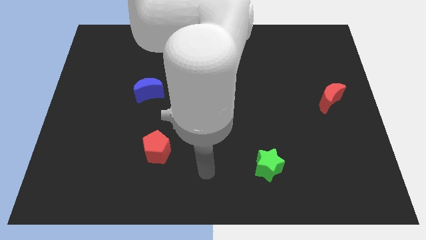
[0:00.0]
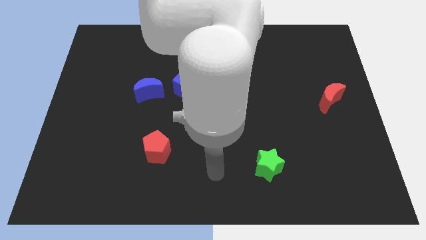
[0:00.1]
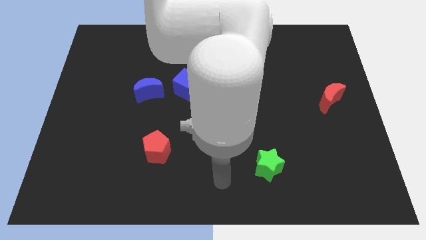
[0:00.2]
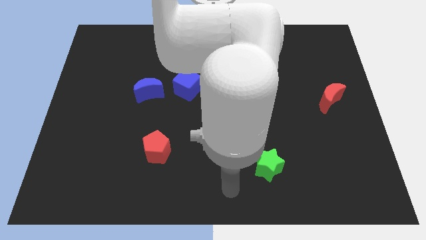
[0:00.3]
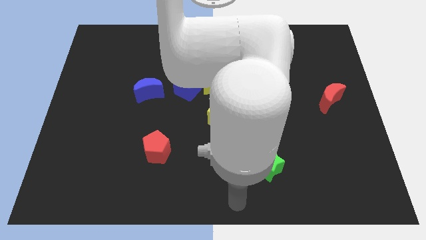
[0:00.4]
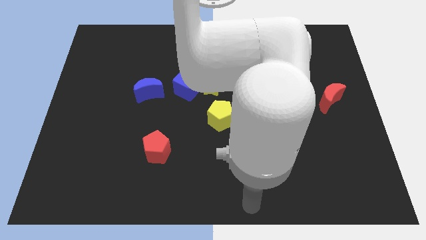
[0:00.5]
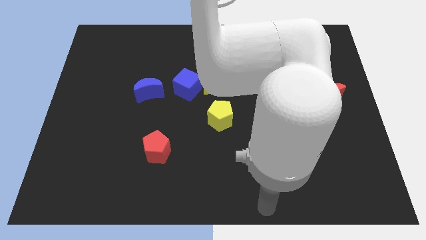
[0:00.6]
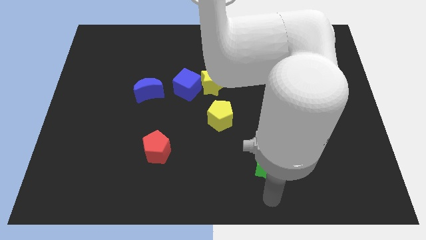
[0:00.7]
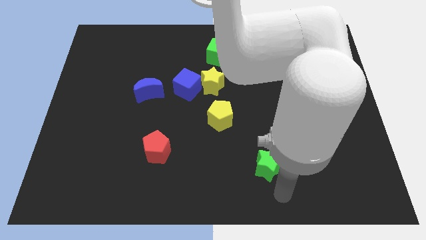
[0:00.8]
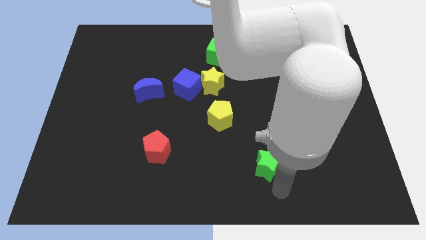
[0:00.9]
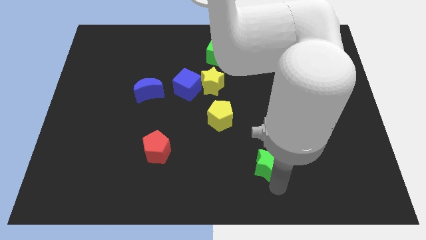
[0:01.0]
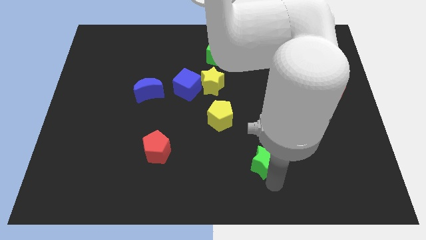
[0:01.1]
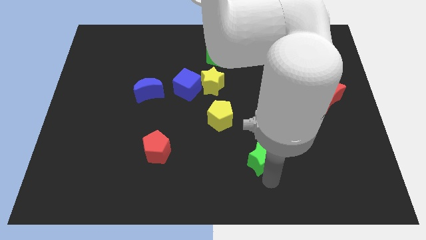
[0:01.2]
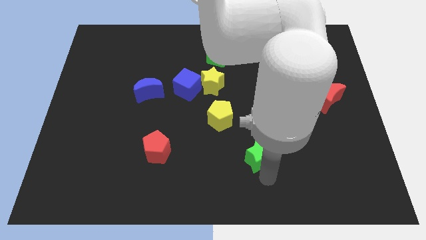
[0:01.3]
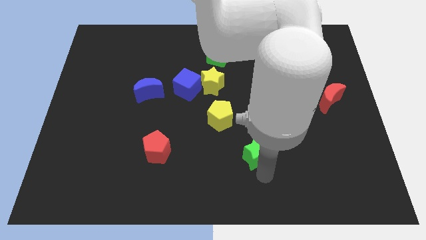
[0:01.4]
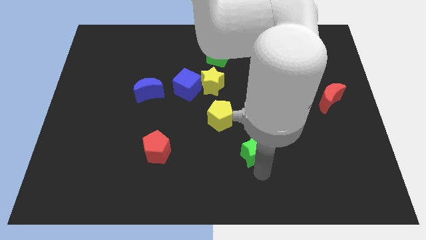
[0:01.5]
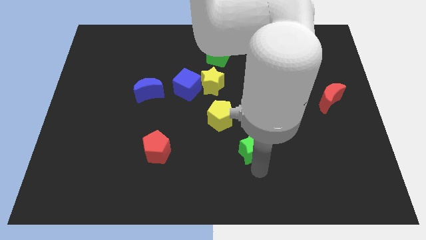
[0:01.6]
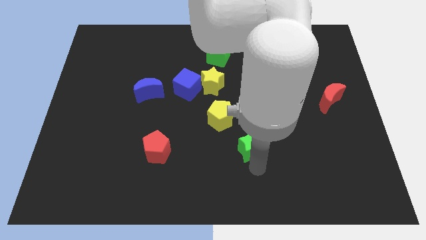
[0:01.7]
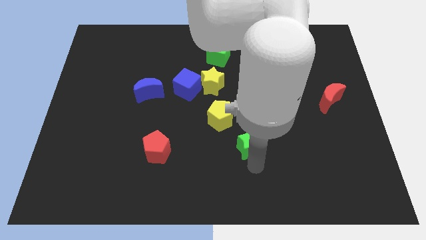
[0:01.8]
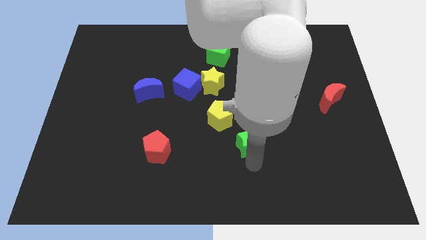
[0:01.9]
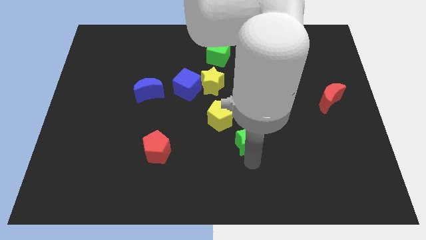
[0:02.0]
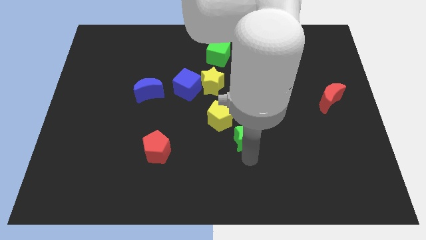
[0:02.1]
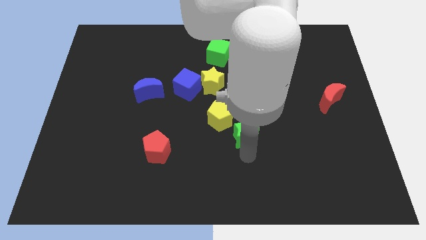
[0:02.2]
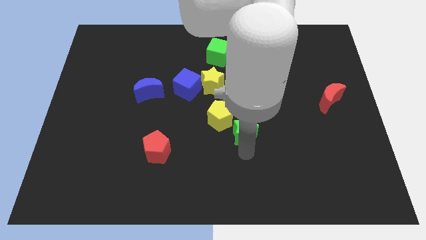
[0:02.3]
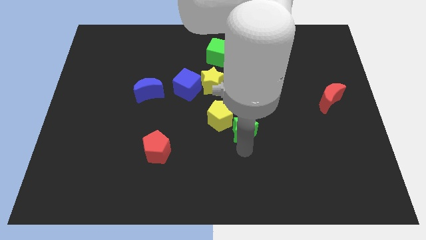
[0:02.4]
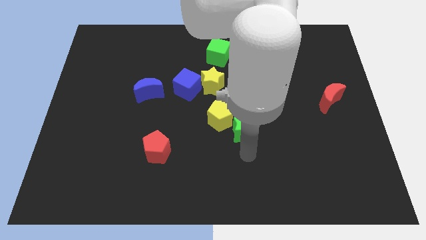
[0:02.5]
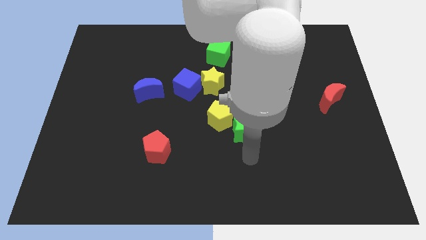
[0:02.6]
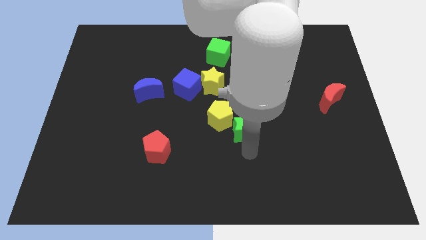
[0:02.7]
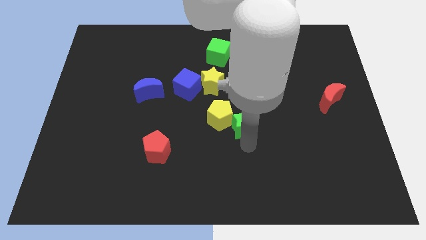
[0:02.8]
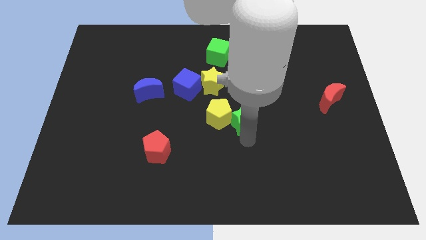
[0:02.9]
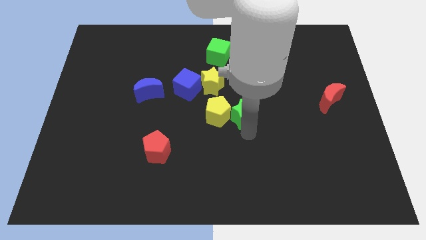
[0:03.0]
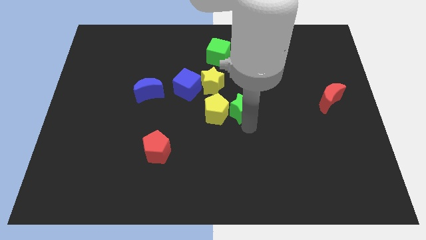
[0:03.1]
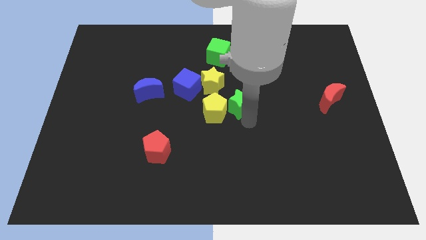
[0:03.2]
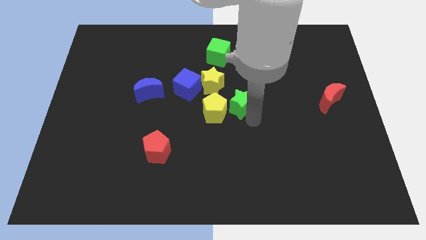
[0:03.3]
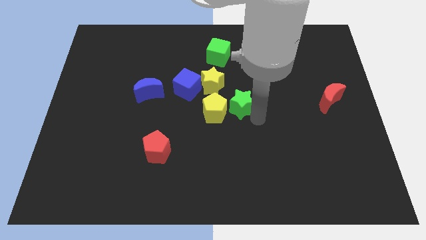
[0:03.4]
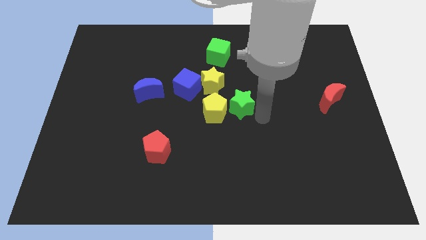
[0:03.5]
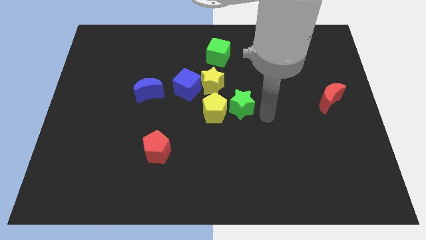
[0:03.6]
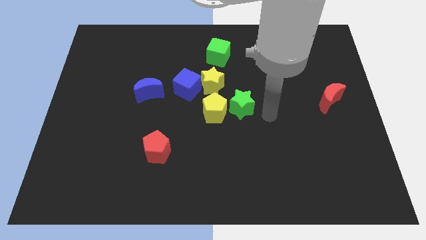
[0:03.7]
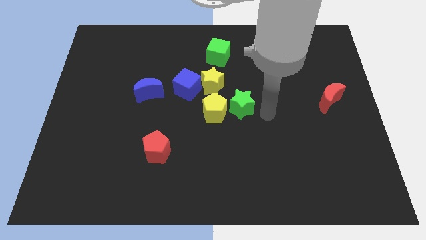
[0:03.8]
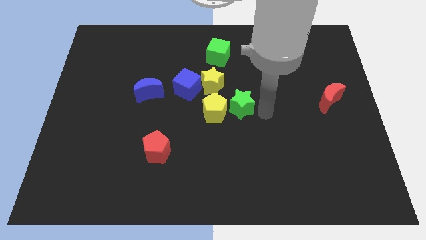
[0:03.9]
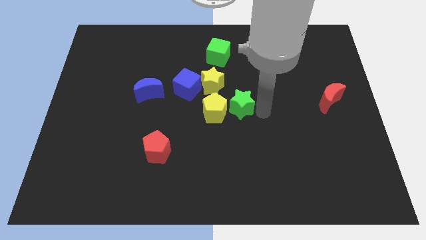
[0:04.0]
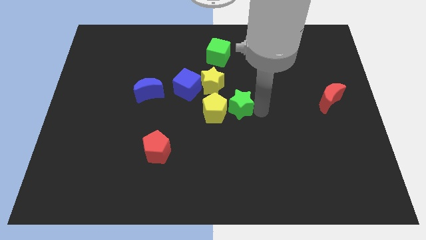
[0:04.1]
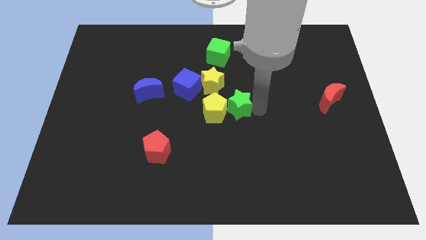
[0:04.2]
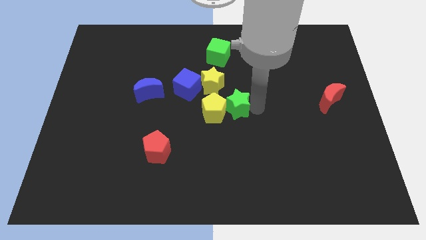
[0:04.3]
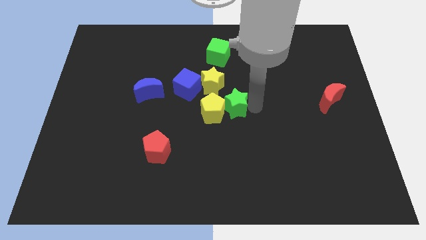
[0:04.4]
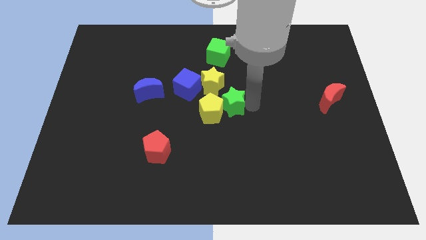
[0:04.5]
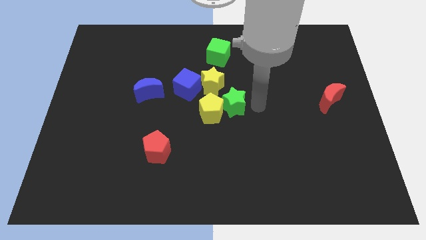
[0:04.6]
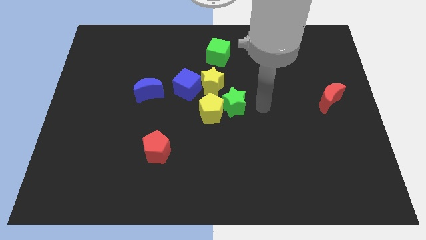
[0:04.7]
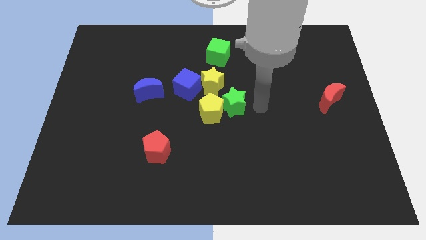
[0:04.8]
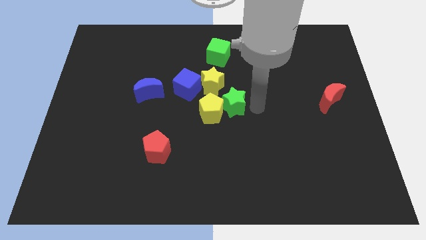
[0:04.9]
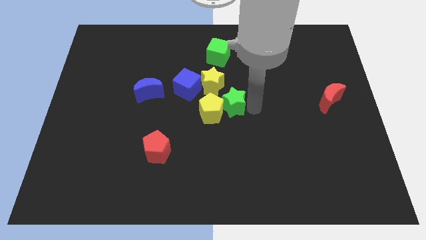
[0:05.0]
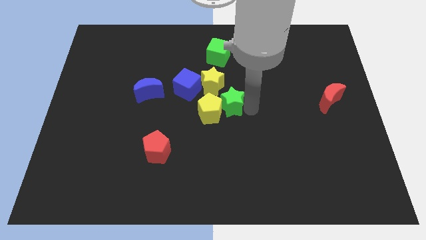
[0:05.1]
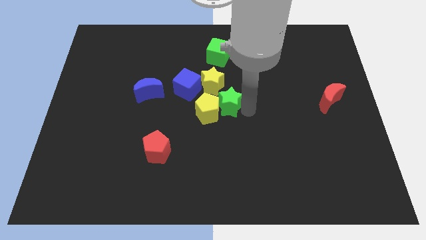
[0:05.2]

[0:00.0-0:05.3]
move the green star to the bottom right side of the blue cube

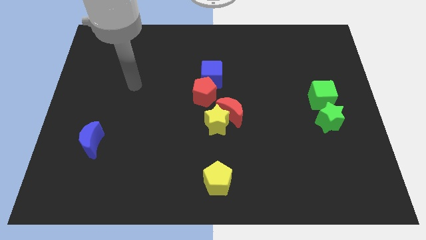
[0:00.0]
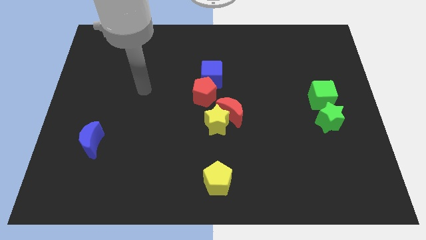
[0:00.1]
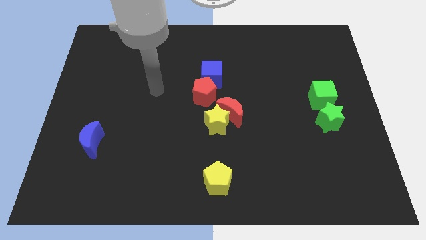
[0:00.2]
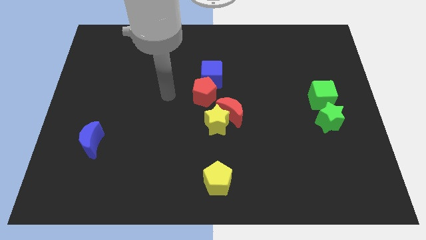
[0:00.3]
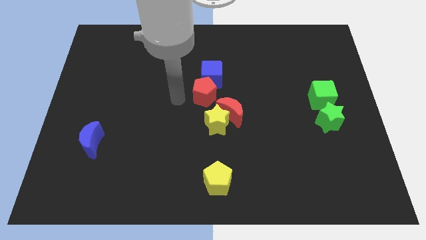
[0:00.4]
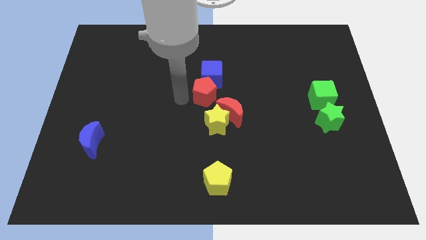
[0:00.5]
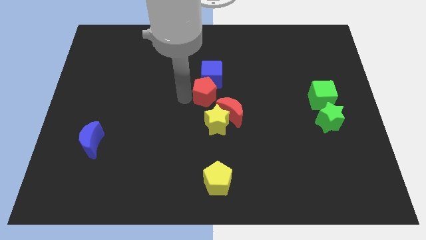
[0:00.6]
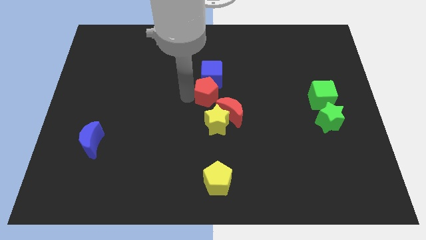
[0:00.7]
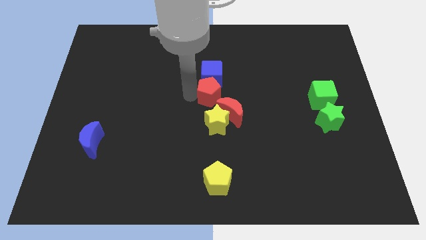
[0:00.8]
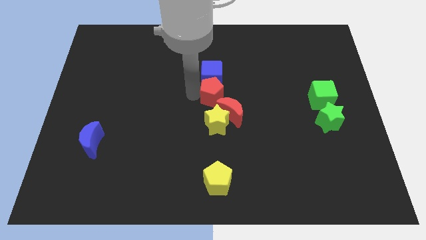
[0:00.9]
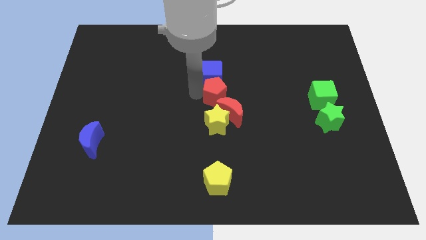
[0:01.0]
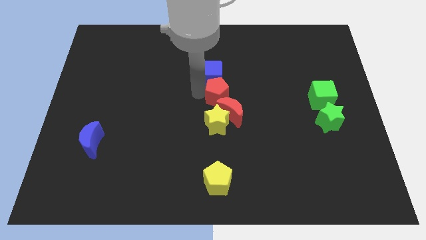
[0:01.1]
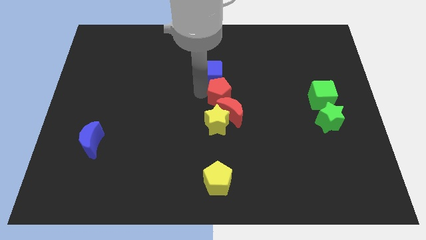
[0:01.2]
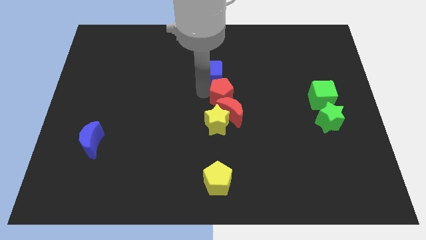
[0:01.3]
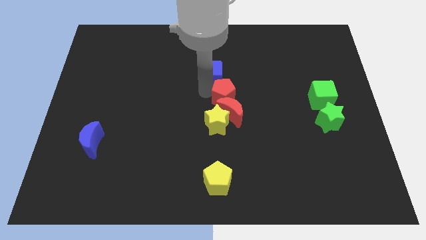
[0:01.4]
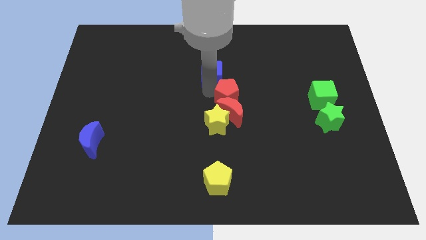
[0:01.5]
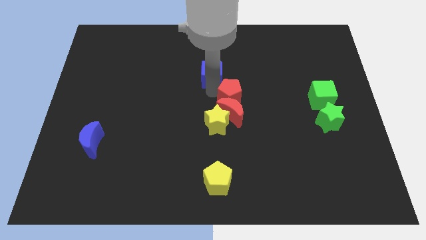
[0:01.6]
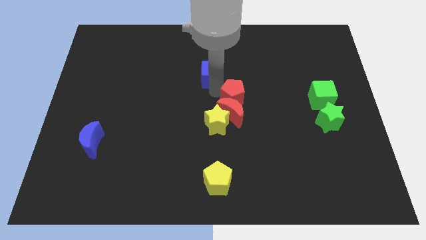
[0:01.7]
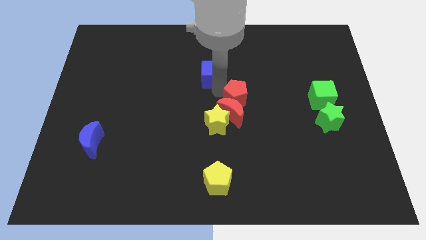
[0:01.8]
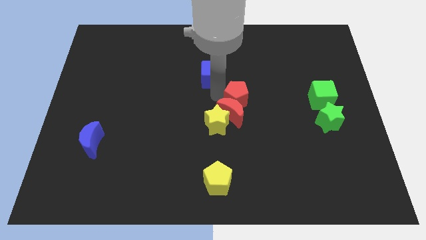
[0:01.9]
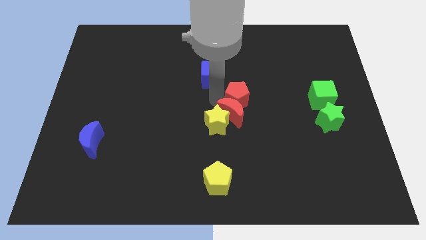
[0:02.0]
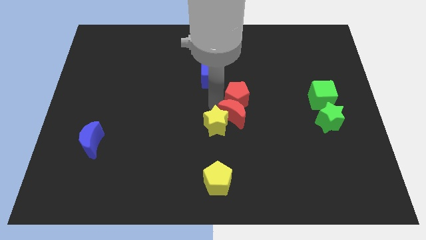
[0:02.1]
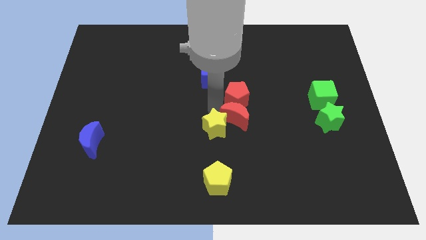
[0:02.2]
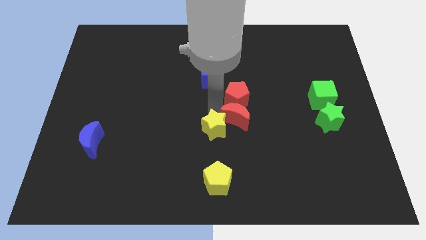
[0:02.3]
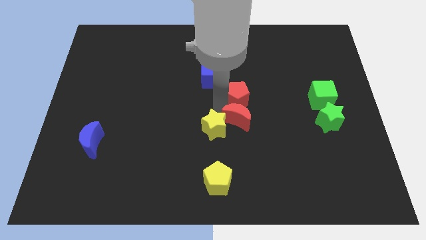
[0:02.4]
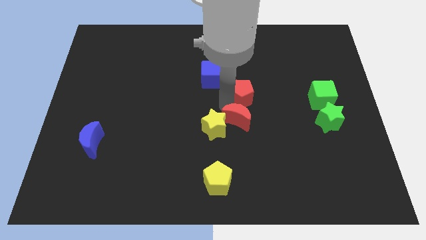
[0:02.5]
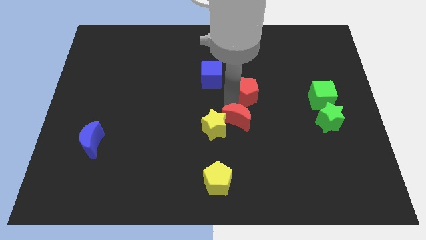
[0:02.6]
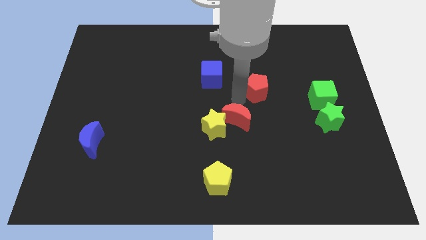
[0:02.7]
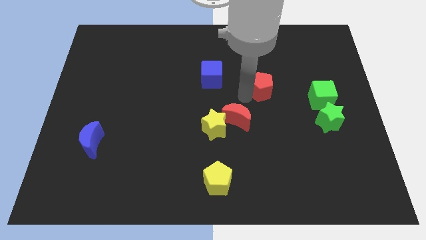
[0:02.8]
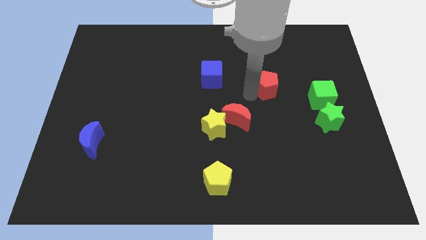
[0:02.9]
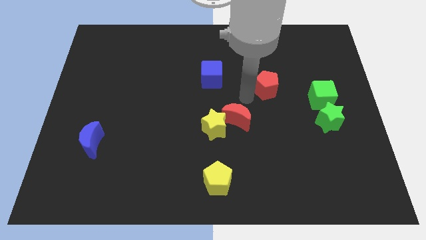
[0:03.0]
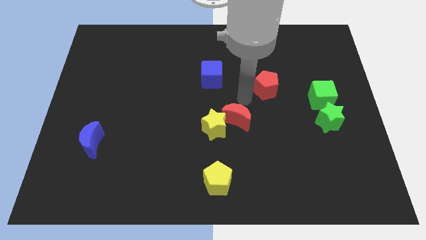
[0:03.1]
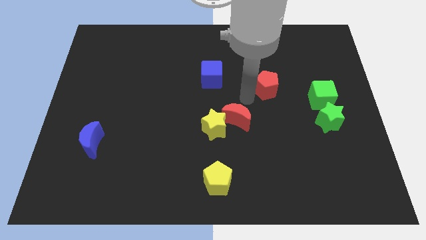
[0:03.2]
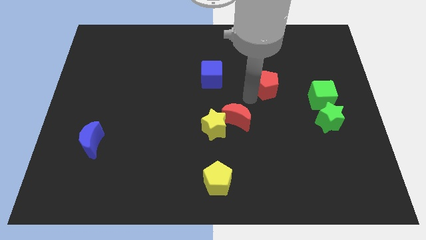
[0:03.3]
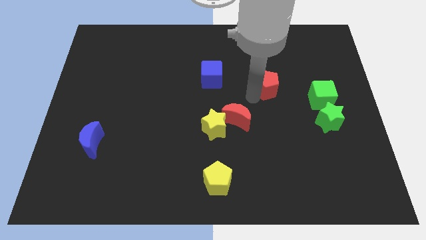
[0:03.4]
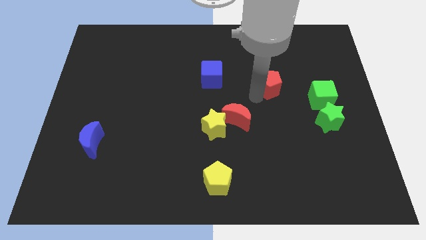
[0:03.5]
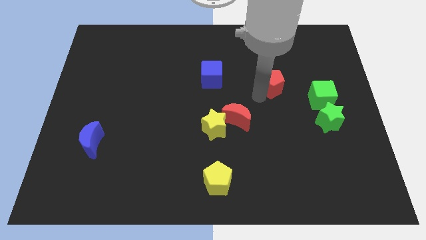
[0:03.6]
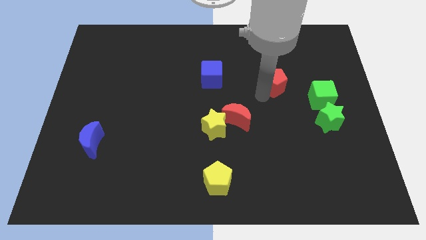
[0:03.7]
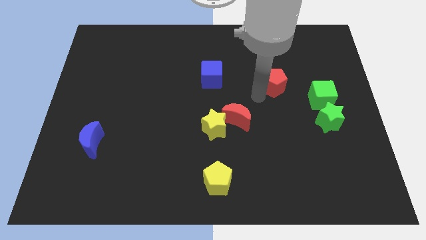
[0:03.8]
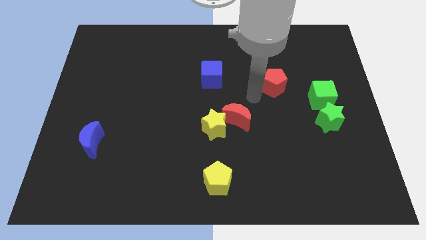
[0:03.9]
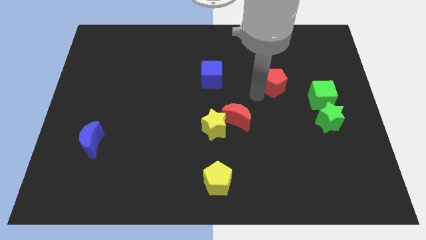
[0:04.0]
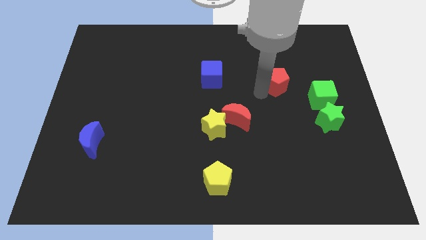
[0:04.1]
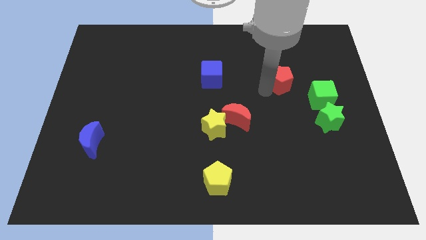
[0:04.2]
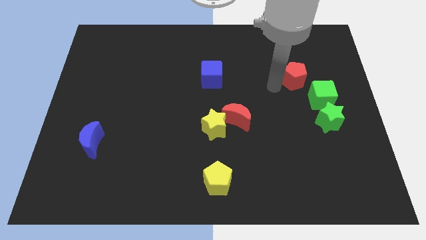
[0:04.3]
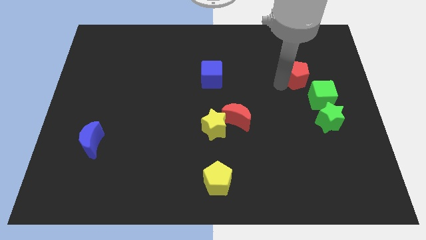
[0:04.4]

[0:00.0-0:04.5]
slide the red pentagon to the top of the green cube
